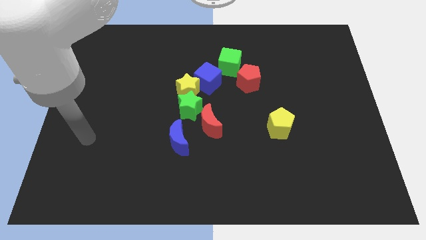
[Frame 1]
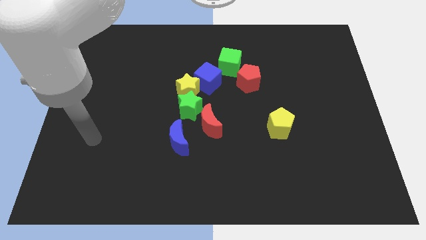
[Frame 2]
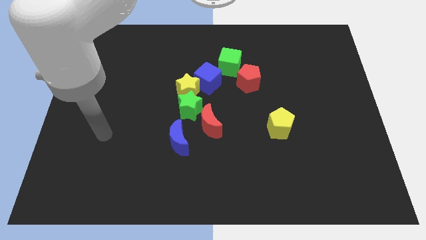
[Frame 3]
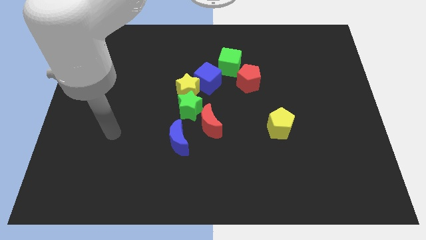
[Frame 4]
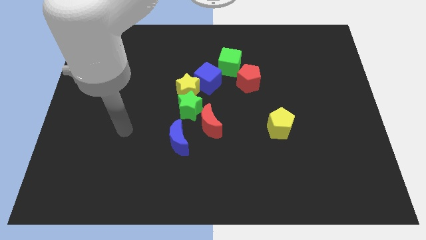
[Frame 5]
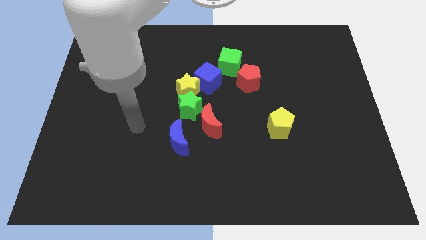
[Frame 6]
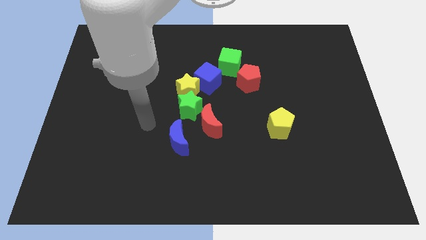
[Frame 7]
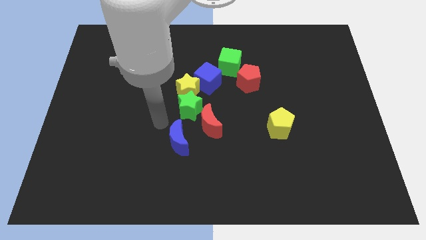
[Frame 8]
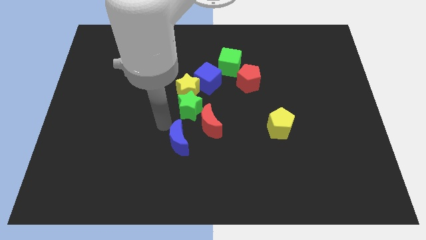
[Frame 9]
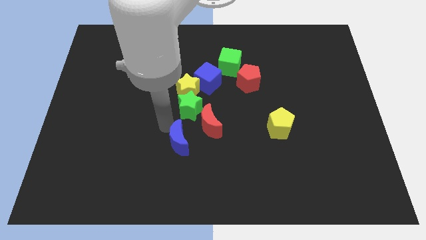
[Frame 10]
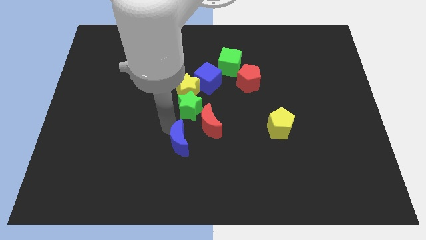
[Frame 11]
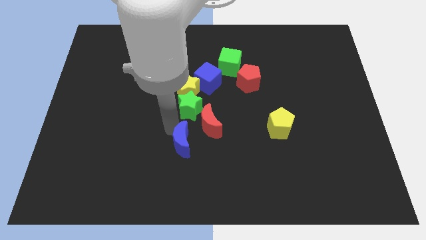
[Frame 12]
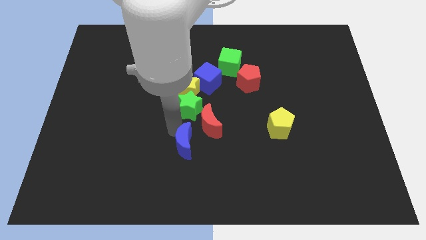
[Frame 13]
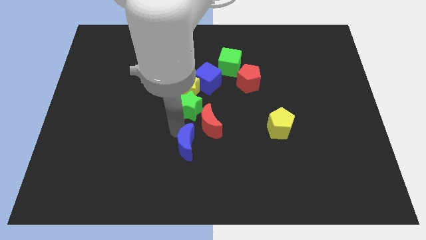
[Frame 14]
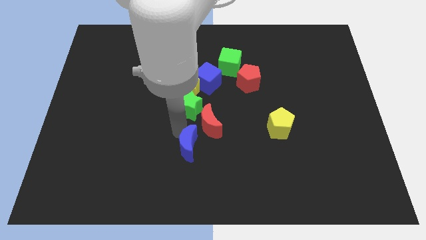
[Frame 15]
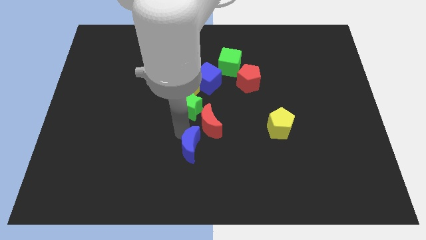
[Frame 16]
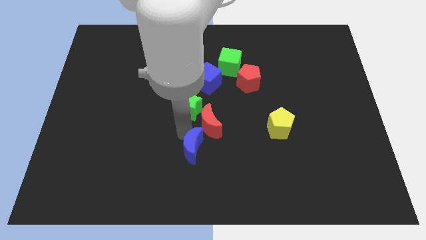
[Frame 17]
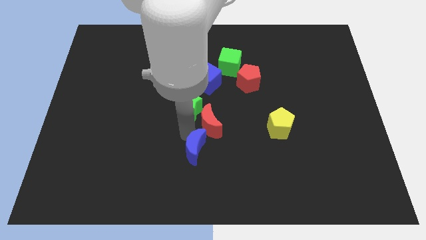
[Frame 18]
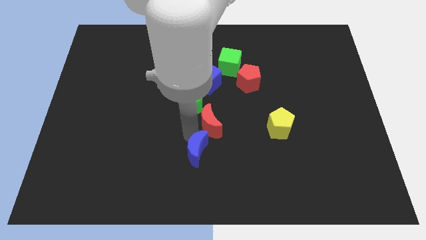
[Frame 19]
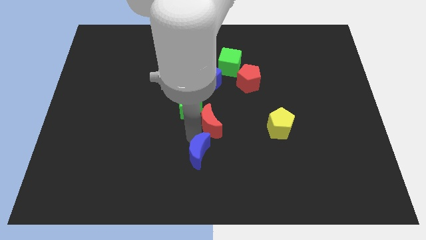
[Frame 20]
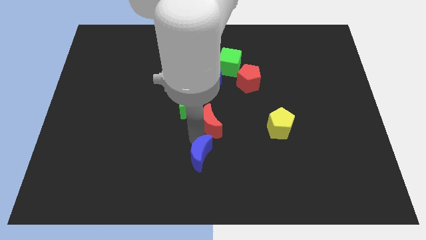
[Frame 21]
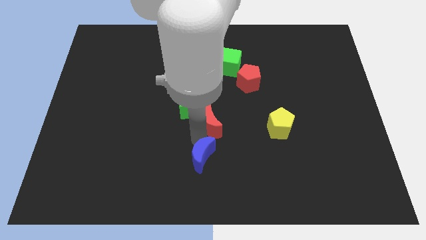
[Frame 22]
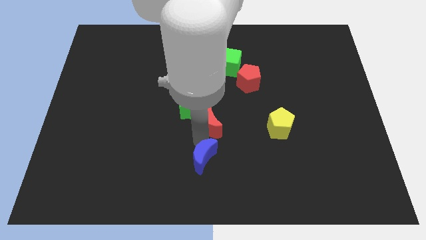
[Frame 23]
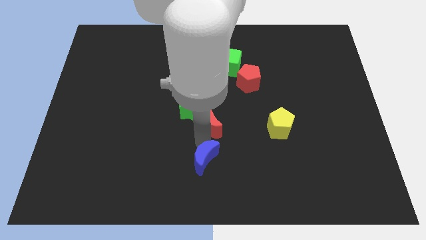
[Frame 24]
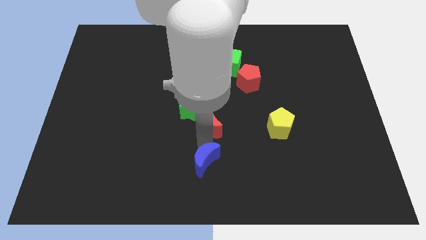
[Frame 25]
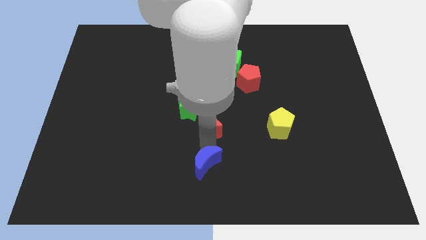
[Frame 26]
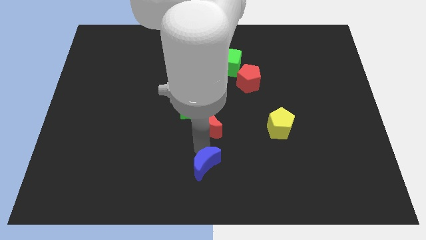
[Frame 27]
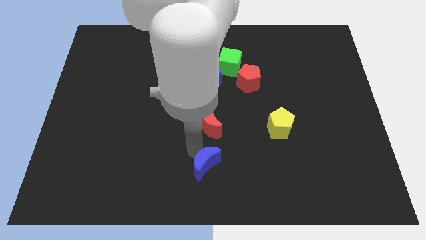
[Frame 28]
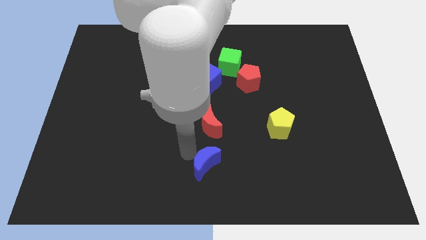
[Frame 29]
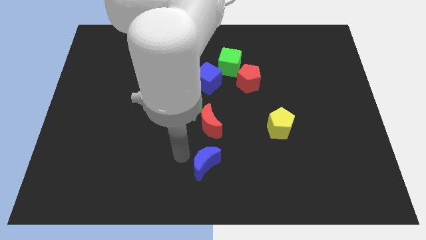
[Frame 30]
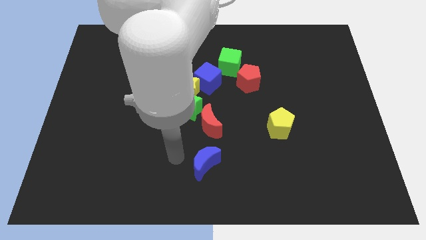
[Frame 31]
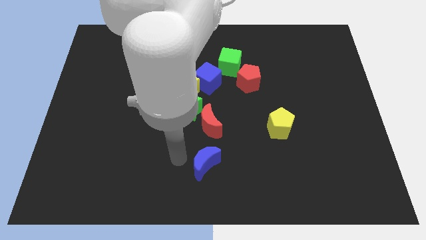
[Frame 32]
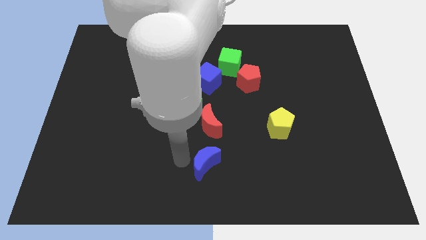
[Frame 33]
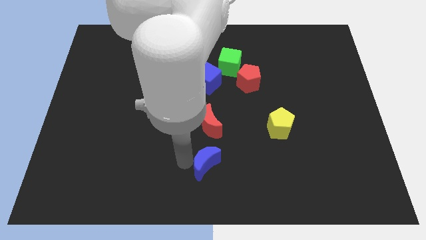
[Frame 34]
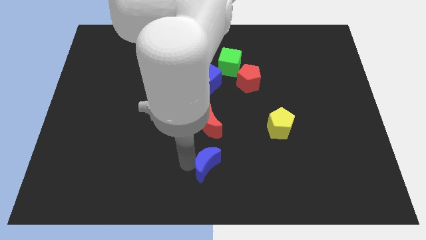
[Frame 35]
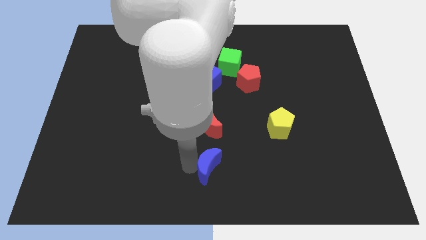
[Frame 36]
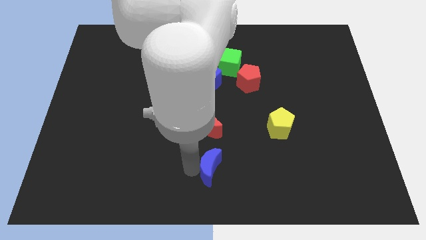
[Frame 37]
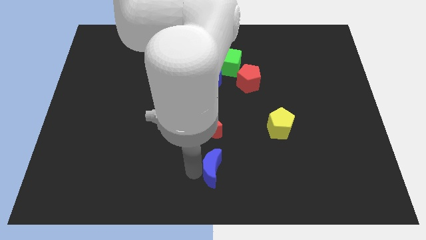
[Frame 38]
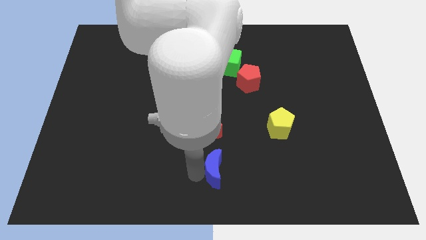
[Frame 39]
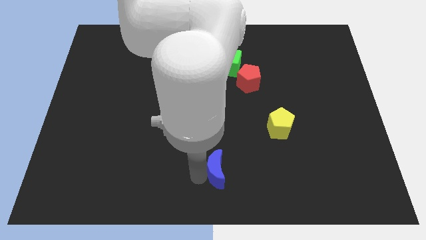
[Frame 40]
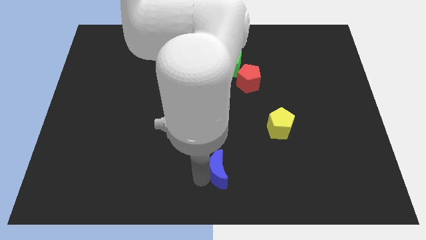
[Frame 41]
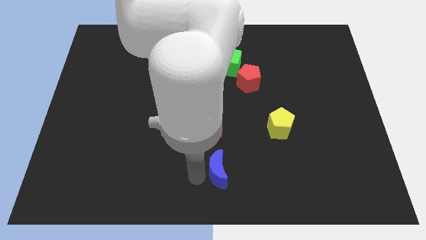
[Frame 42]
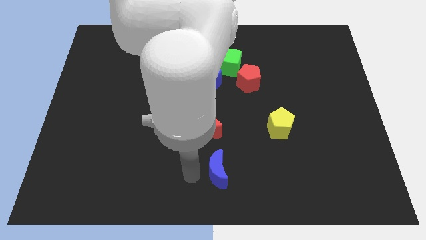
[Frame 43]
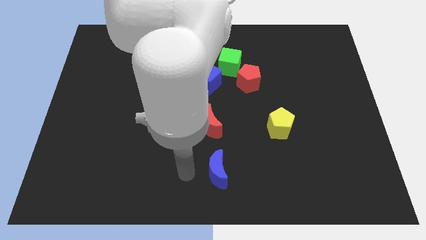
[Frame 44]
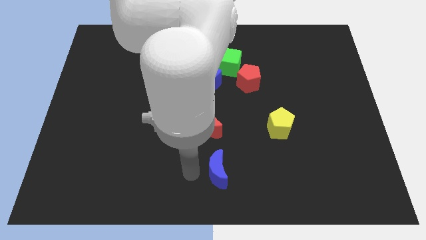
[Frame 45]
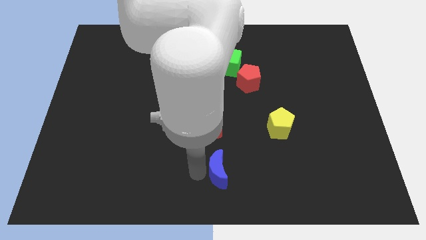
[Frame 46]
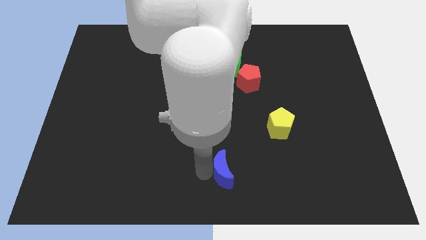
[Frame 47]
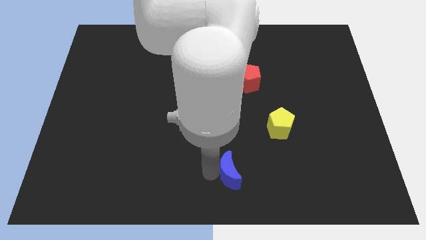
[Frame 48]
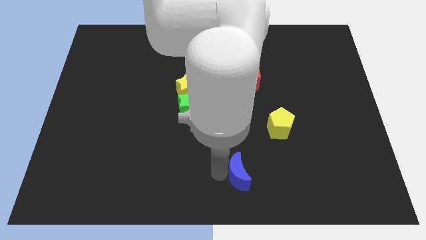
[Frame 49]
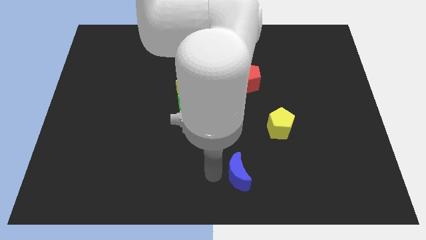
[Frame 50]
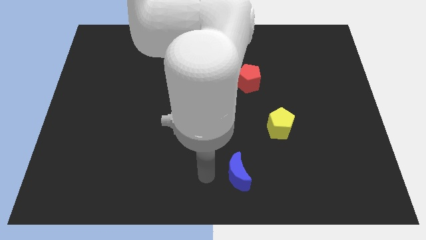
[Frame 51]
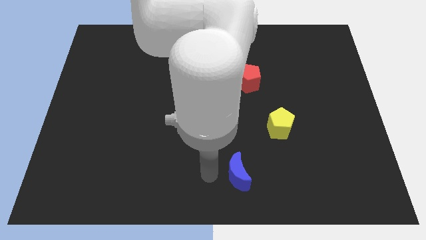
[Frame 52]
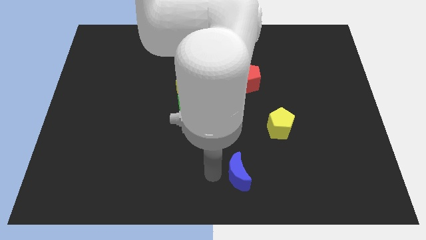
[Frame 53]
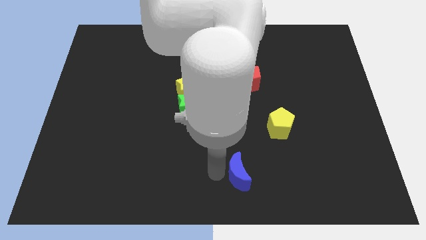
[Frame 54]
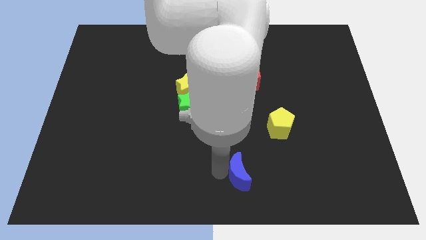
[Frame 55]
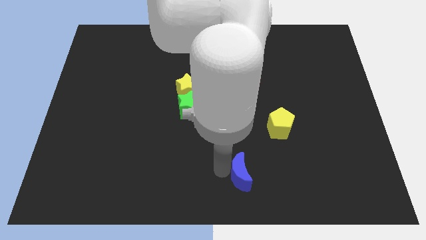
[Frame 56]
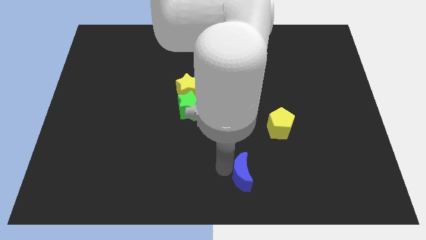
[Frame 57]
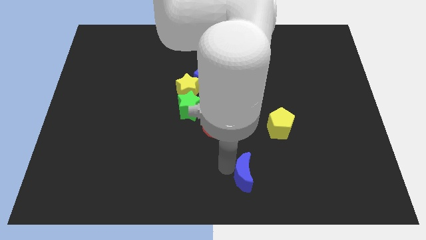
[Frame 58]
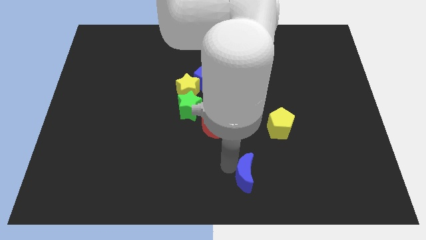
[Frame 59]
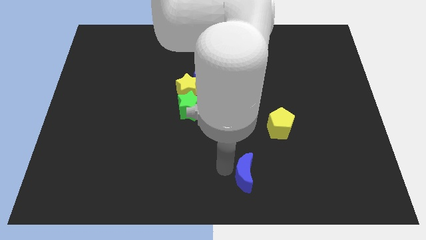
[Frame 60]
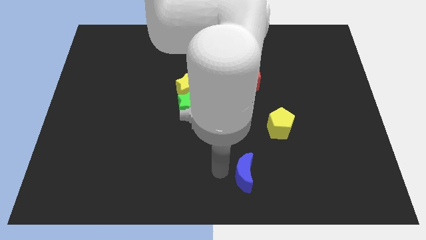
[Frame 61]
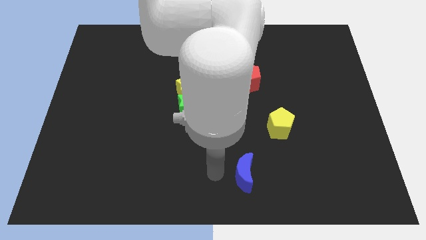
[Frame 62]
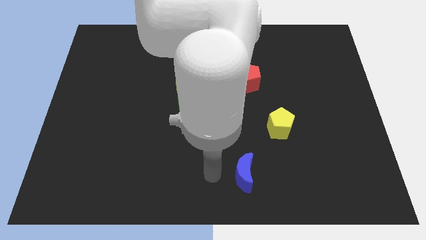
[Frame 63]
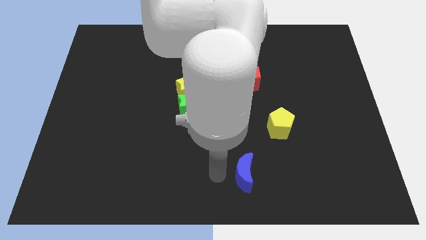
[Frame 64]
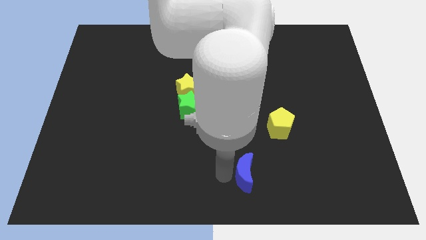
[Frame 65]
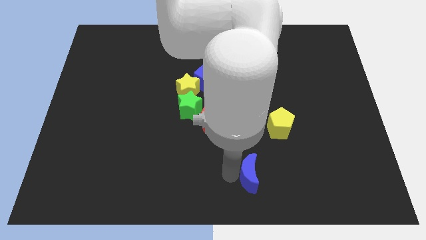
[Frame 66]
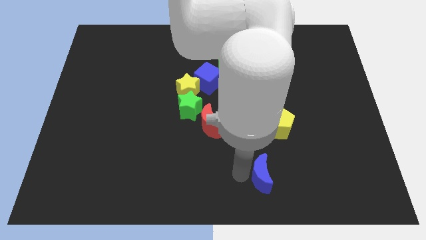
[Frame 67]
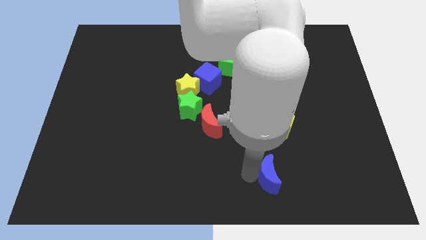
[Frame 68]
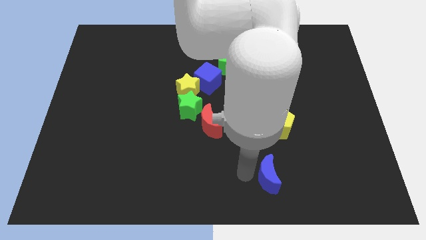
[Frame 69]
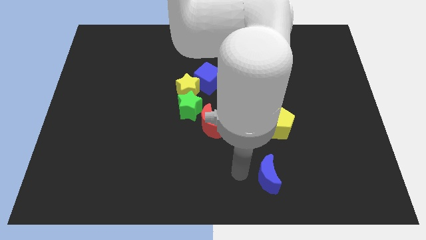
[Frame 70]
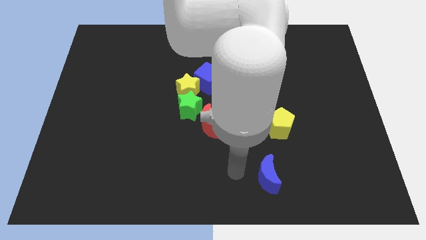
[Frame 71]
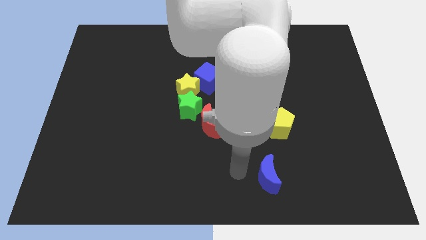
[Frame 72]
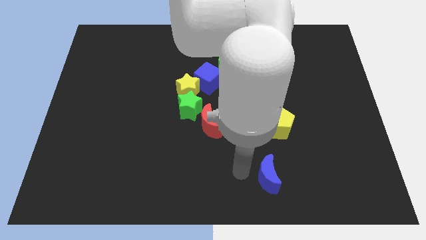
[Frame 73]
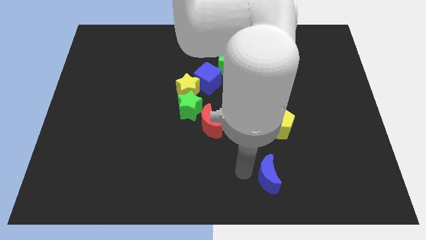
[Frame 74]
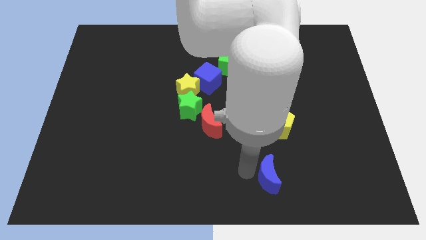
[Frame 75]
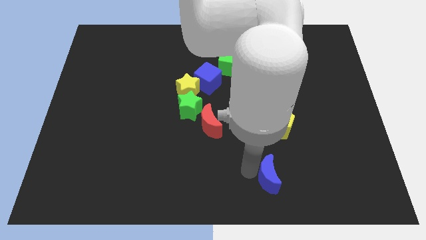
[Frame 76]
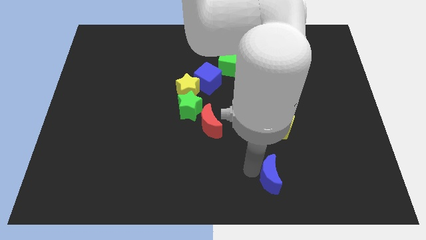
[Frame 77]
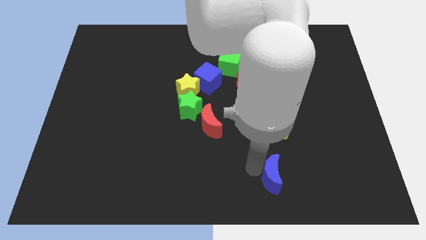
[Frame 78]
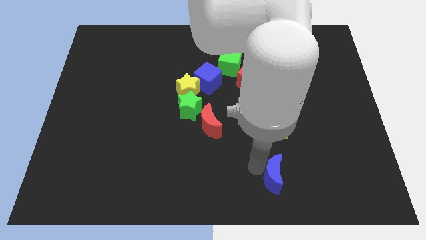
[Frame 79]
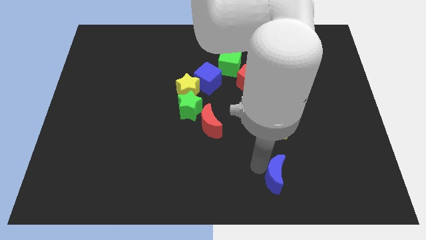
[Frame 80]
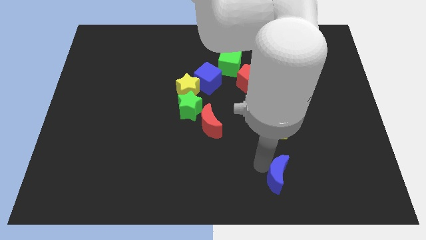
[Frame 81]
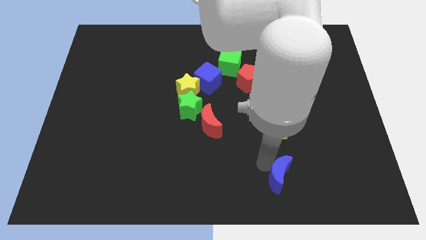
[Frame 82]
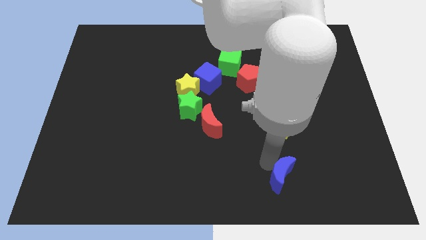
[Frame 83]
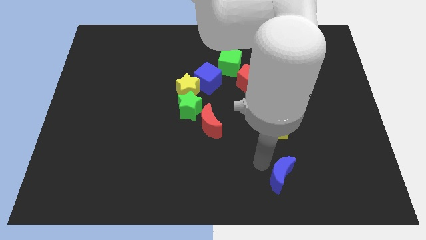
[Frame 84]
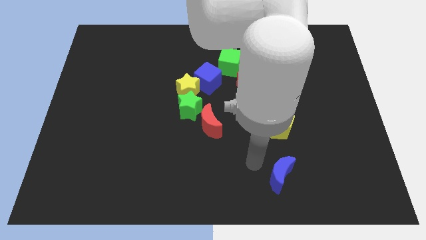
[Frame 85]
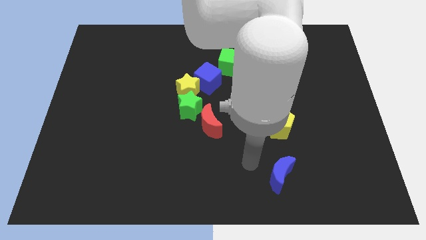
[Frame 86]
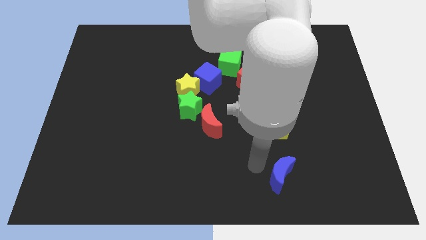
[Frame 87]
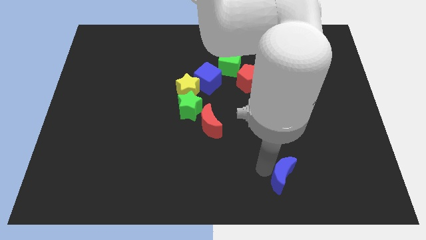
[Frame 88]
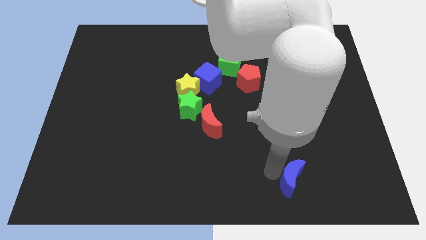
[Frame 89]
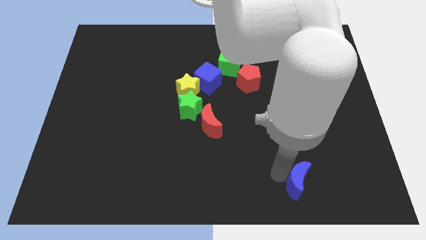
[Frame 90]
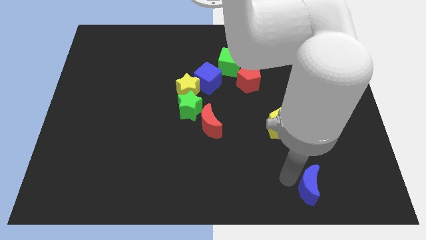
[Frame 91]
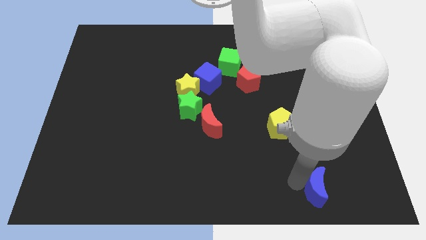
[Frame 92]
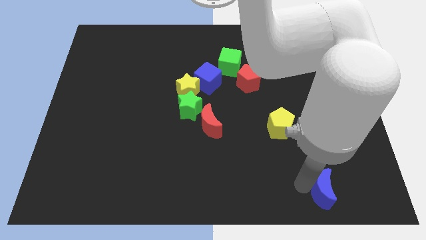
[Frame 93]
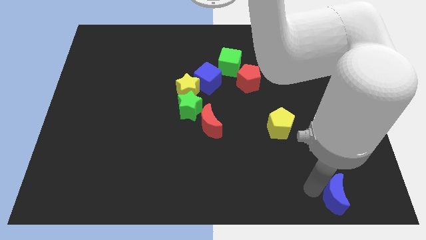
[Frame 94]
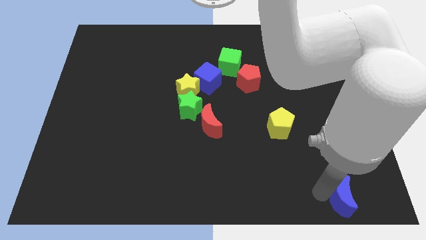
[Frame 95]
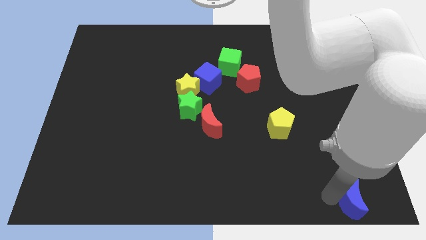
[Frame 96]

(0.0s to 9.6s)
put the blue moon to the bottom right
